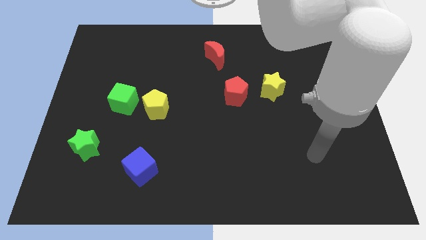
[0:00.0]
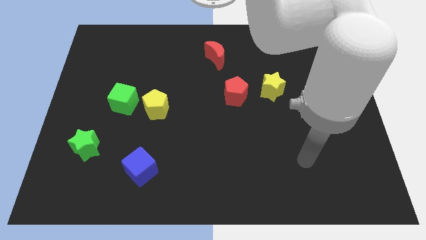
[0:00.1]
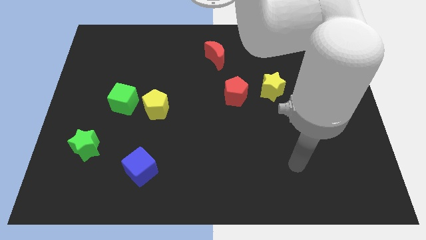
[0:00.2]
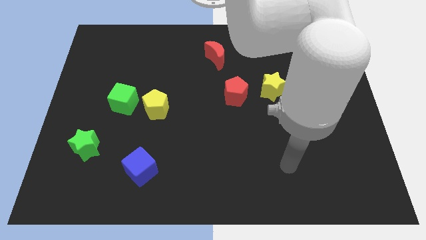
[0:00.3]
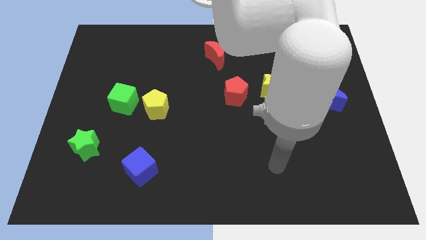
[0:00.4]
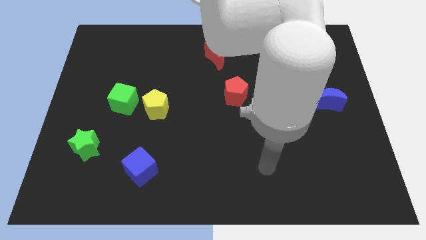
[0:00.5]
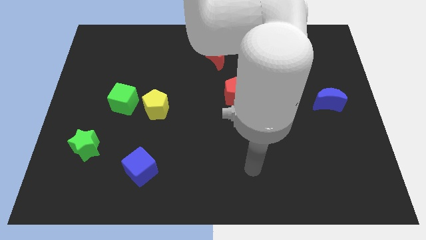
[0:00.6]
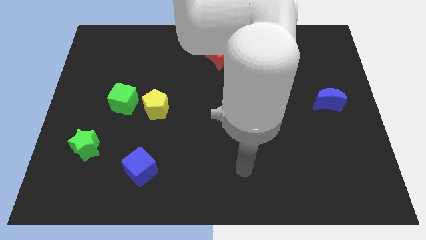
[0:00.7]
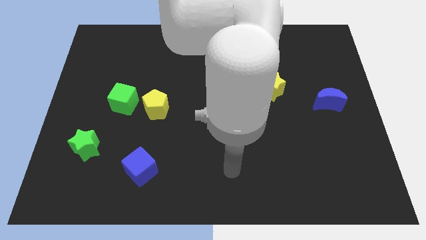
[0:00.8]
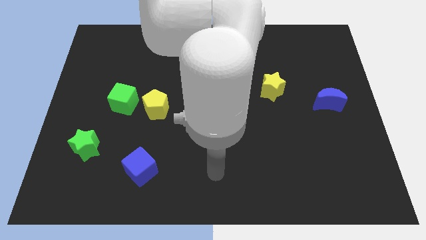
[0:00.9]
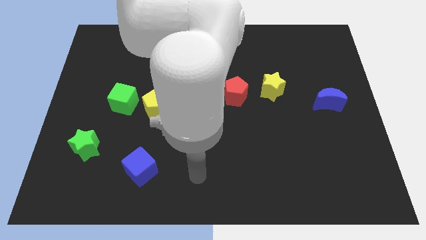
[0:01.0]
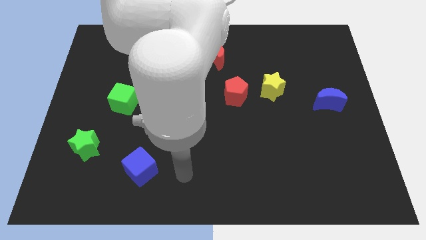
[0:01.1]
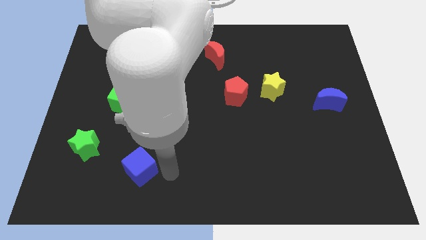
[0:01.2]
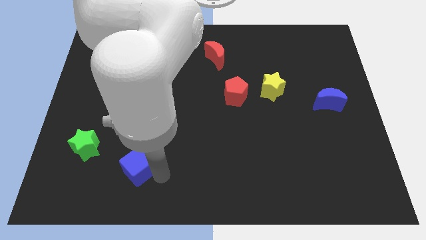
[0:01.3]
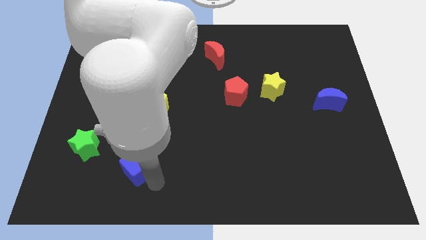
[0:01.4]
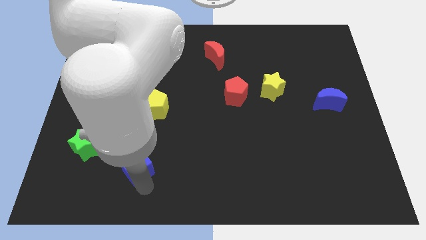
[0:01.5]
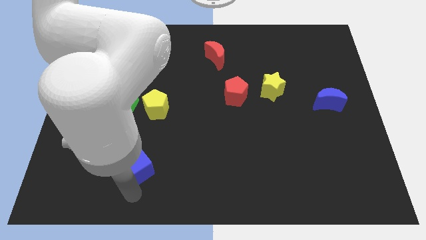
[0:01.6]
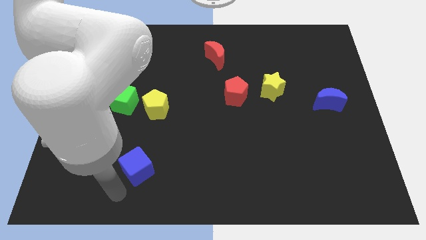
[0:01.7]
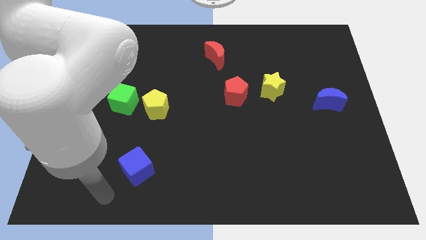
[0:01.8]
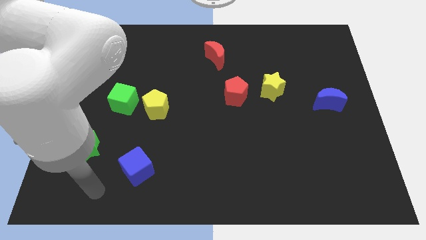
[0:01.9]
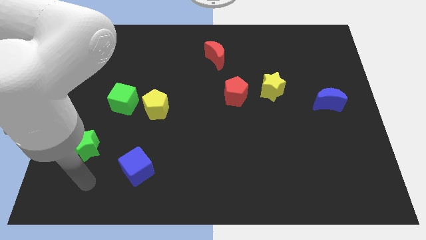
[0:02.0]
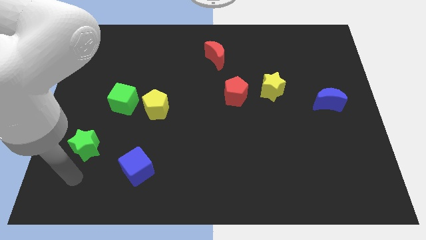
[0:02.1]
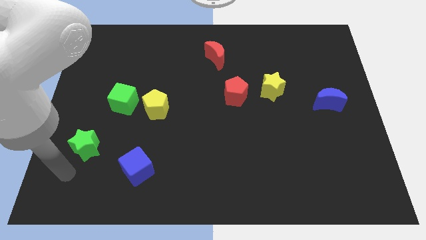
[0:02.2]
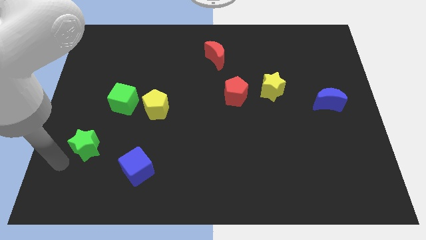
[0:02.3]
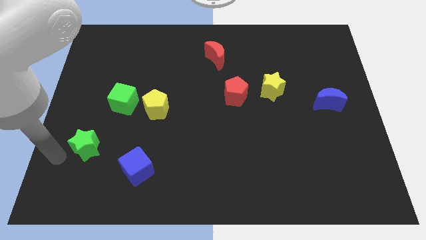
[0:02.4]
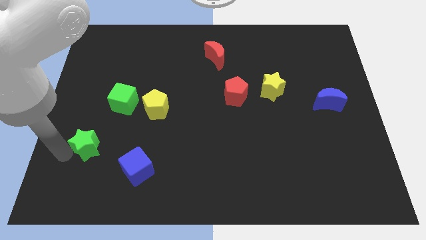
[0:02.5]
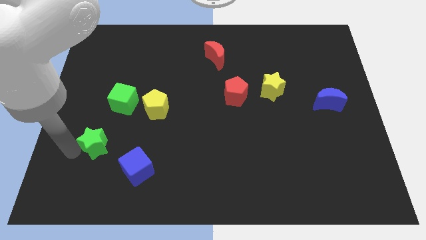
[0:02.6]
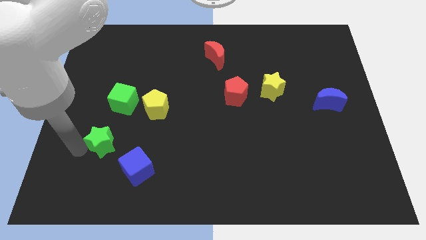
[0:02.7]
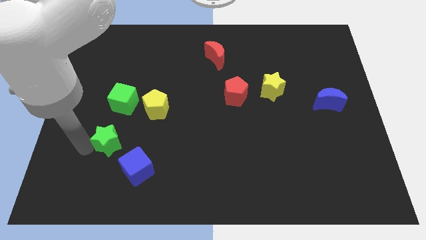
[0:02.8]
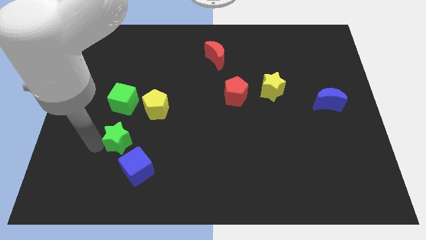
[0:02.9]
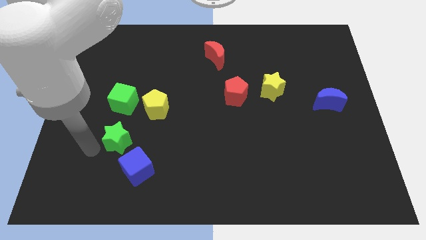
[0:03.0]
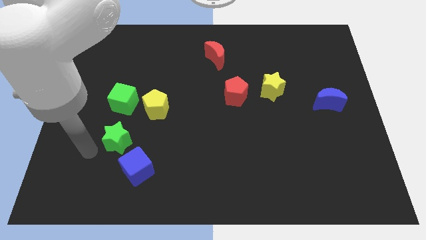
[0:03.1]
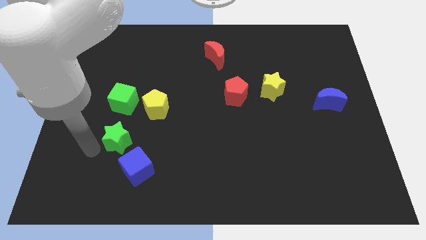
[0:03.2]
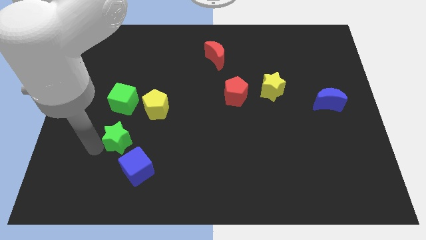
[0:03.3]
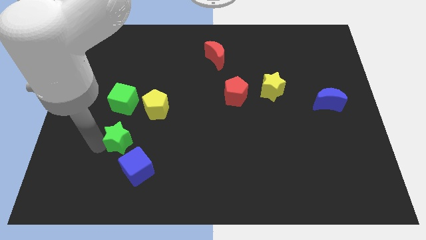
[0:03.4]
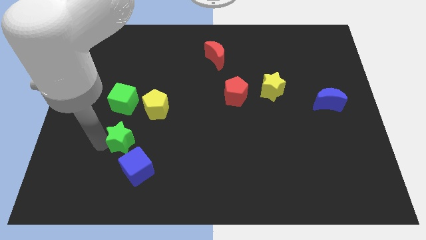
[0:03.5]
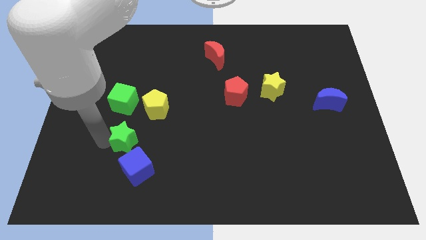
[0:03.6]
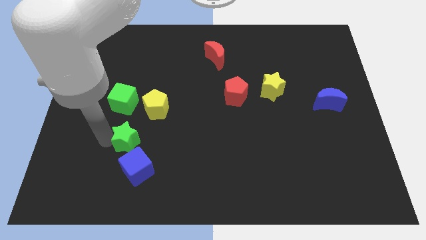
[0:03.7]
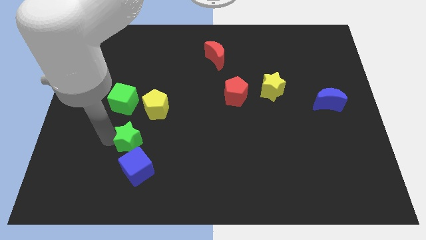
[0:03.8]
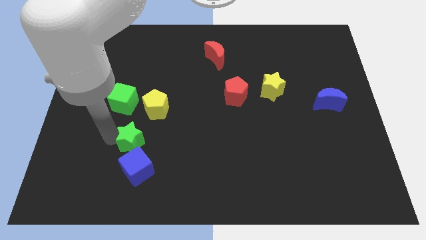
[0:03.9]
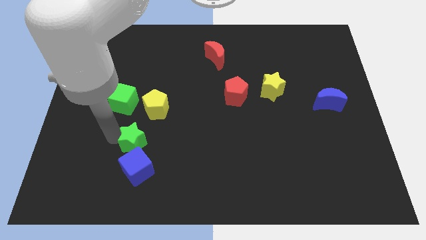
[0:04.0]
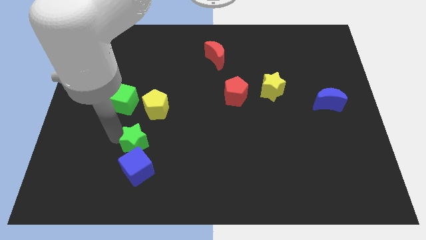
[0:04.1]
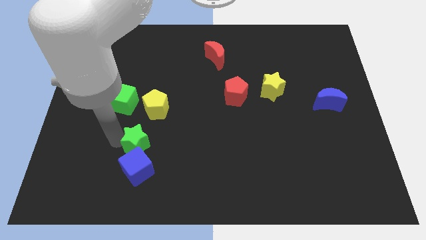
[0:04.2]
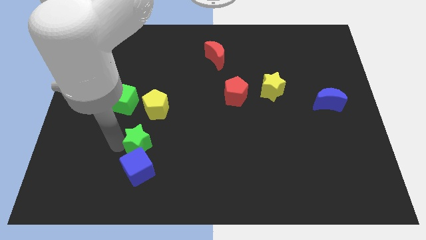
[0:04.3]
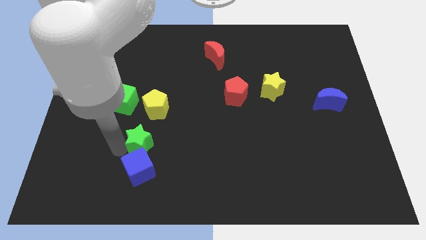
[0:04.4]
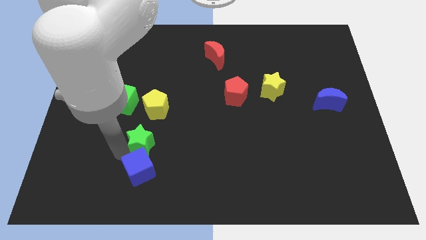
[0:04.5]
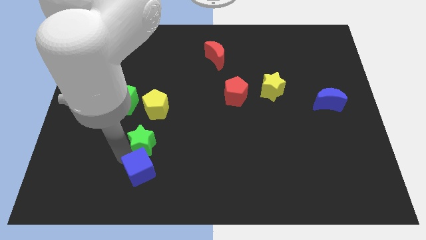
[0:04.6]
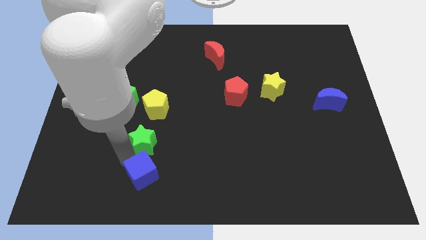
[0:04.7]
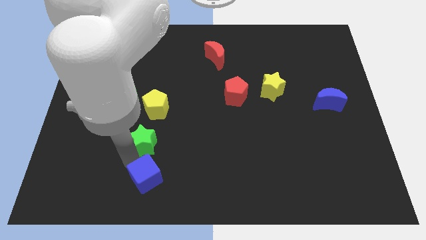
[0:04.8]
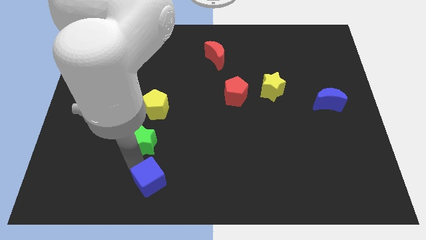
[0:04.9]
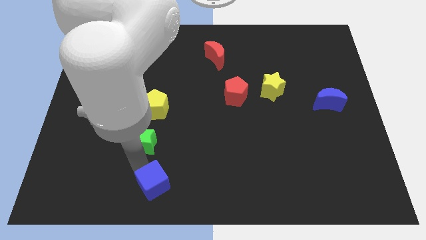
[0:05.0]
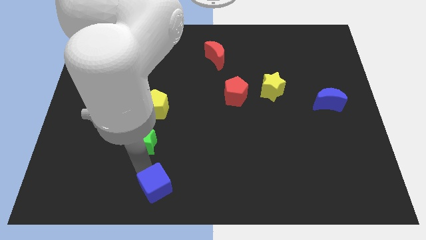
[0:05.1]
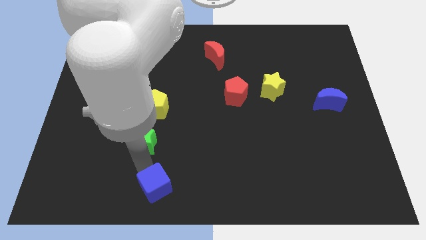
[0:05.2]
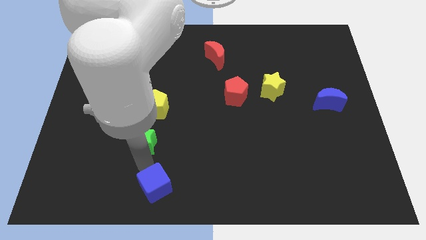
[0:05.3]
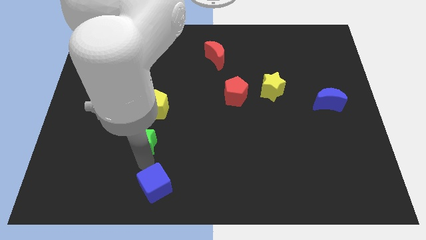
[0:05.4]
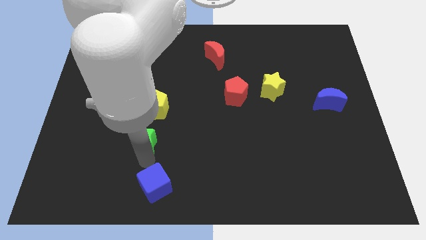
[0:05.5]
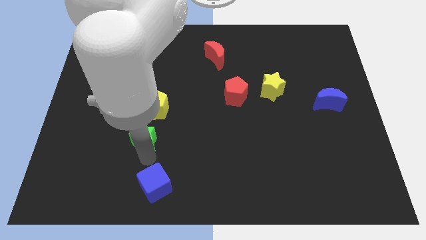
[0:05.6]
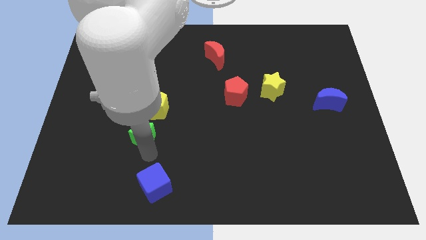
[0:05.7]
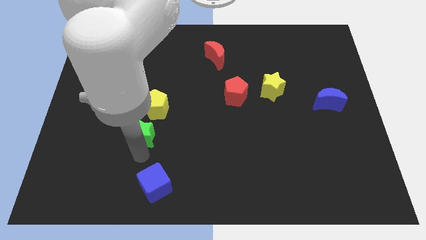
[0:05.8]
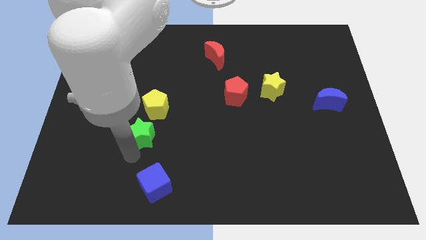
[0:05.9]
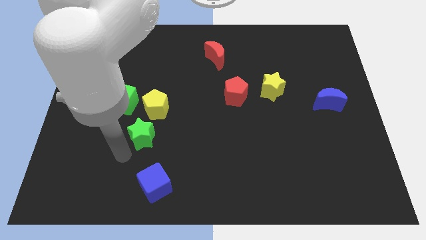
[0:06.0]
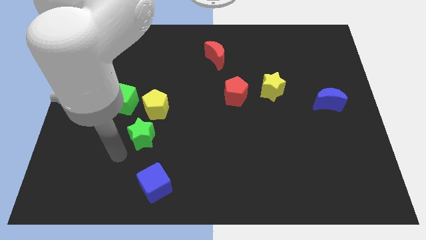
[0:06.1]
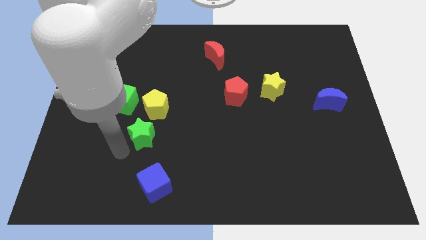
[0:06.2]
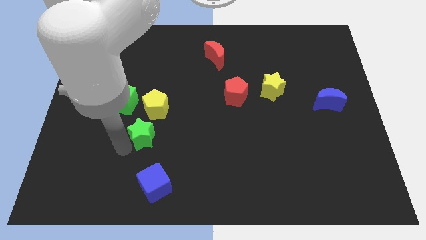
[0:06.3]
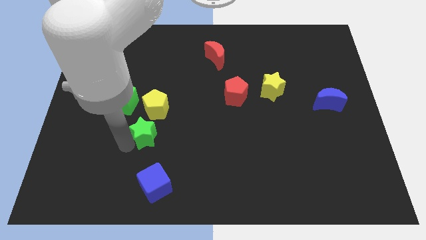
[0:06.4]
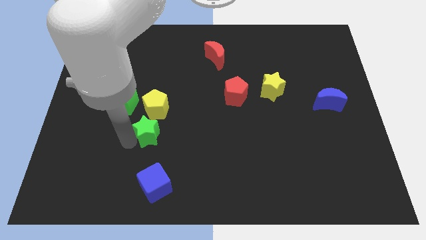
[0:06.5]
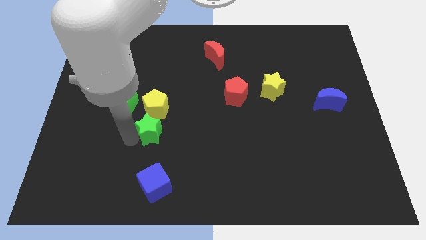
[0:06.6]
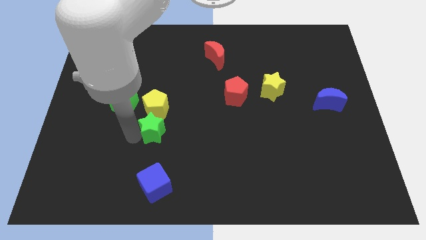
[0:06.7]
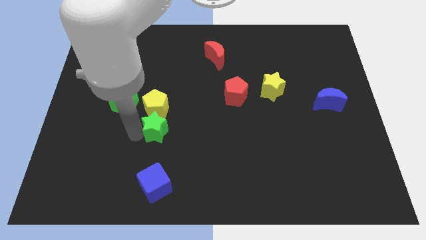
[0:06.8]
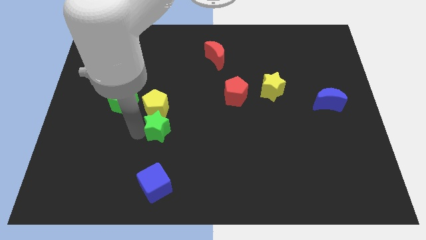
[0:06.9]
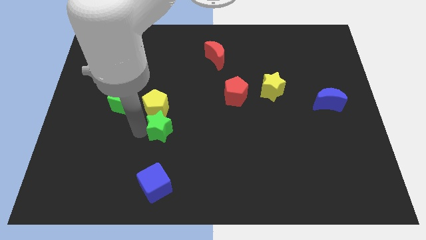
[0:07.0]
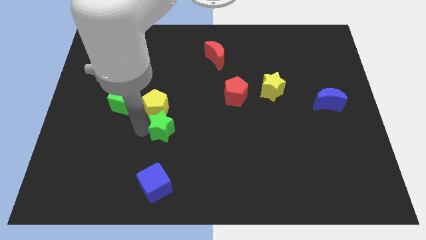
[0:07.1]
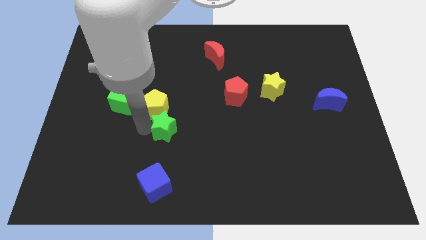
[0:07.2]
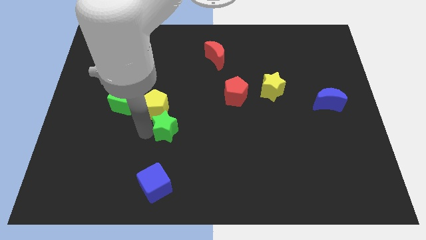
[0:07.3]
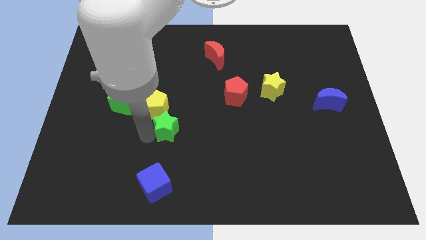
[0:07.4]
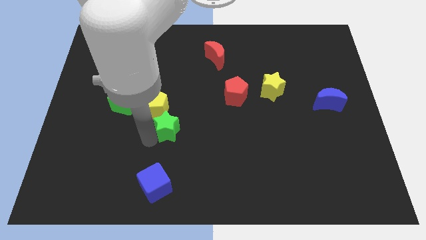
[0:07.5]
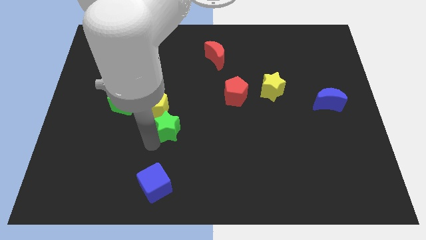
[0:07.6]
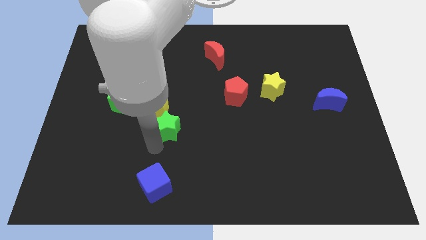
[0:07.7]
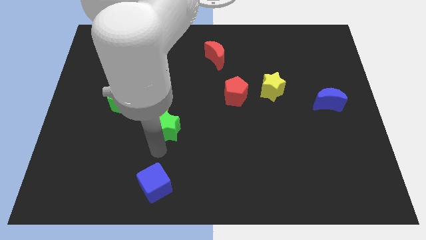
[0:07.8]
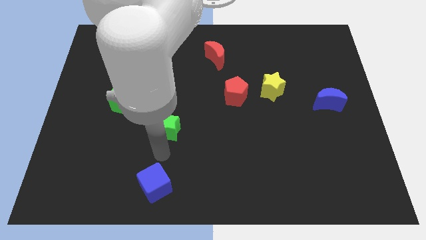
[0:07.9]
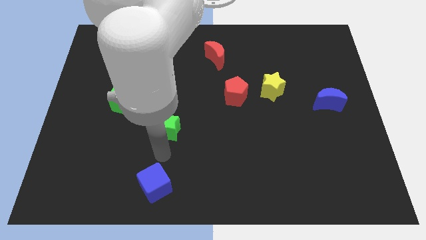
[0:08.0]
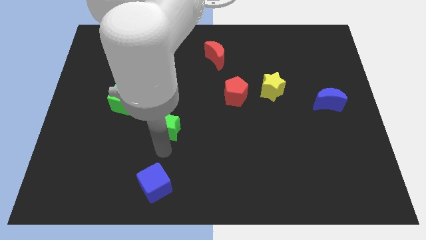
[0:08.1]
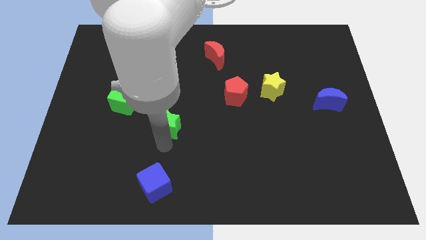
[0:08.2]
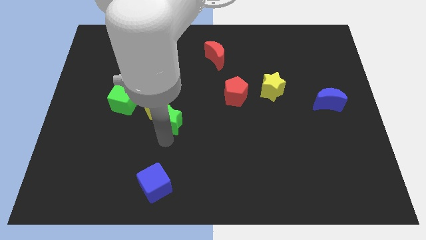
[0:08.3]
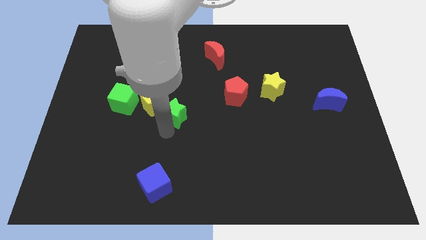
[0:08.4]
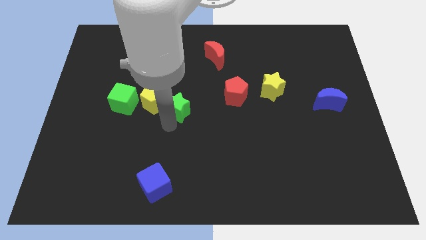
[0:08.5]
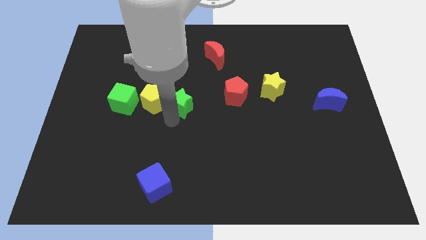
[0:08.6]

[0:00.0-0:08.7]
push the green star diagonally up and to the right
